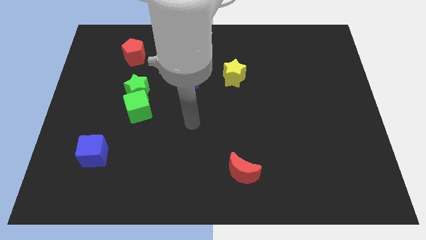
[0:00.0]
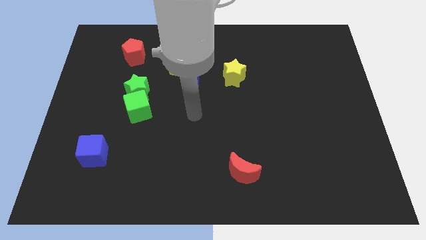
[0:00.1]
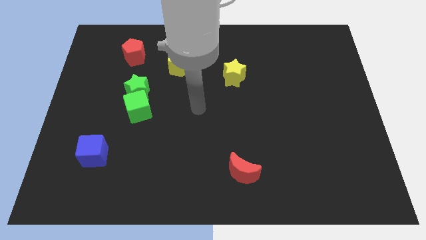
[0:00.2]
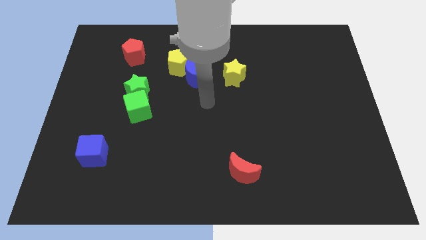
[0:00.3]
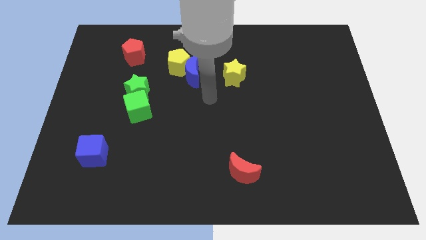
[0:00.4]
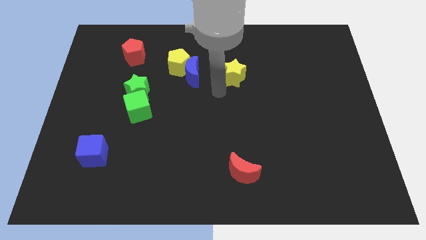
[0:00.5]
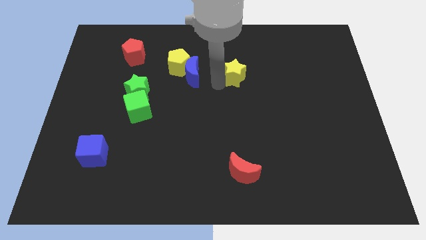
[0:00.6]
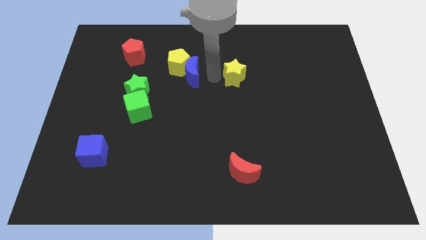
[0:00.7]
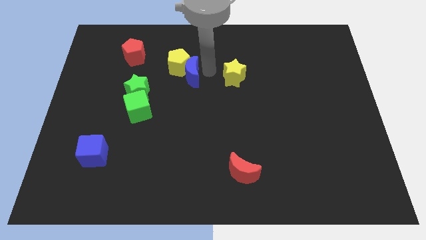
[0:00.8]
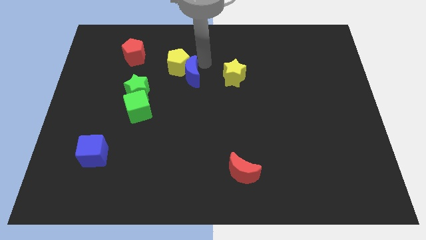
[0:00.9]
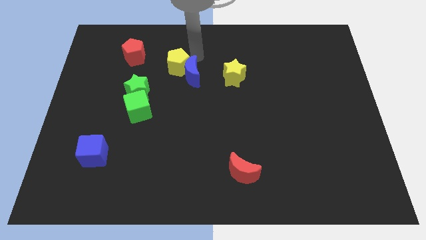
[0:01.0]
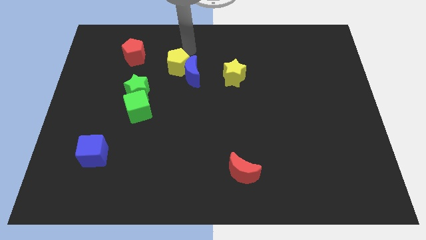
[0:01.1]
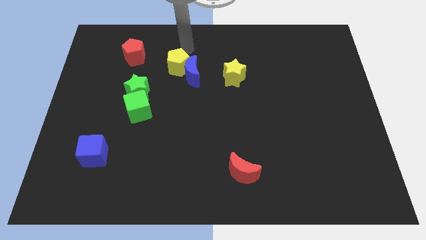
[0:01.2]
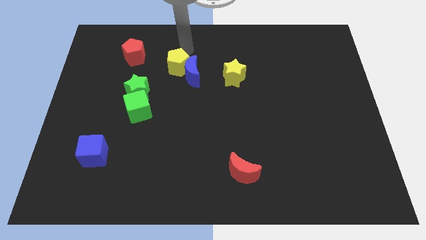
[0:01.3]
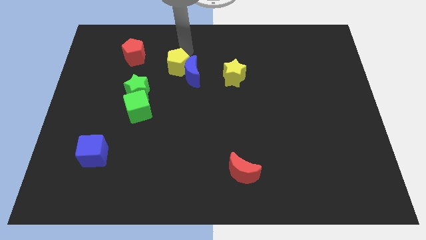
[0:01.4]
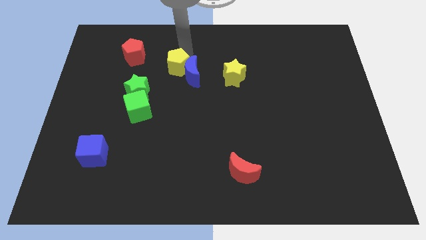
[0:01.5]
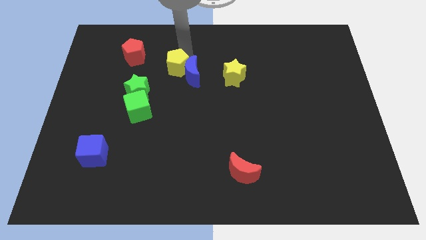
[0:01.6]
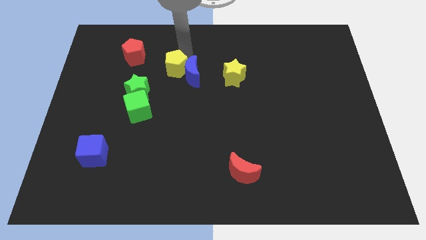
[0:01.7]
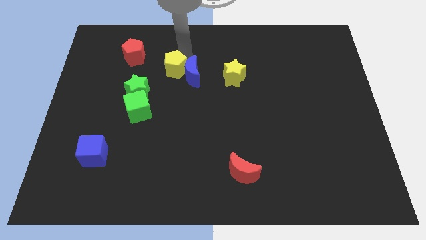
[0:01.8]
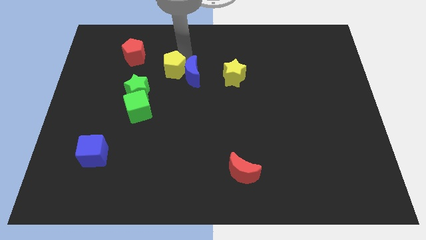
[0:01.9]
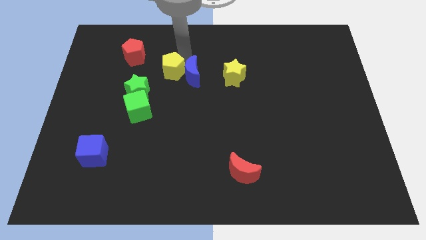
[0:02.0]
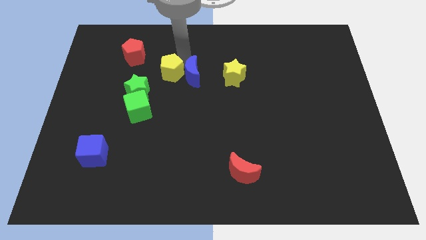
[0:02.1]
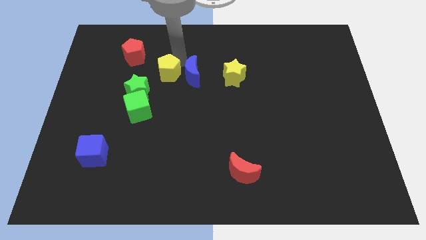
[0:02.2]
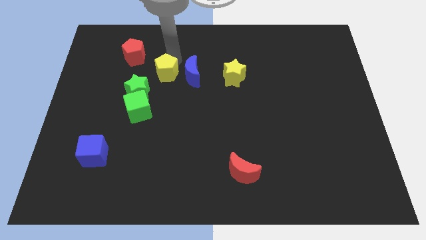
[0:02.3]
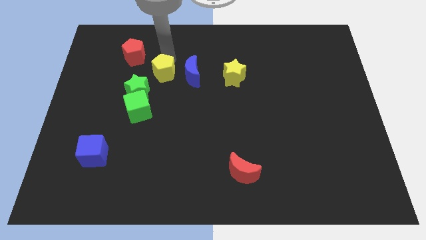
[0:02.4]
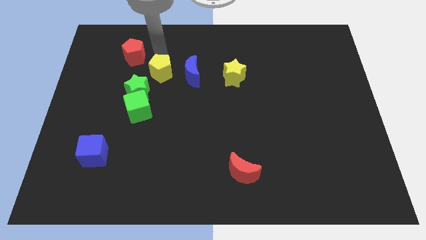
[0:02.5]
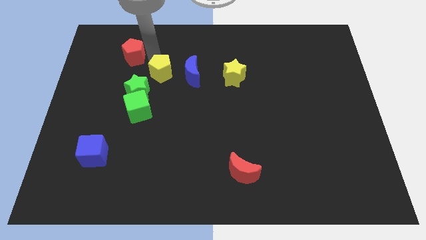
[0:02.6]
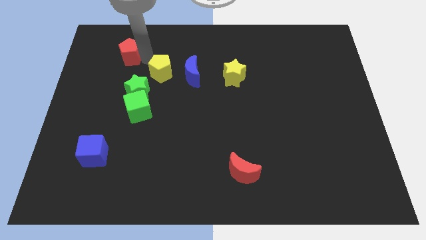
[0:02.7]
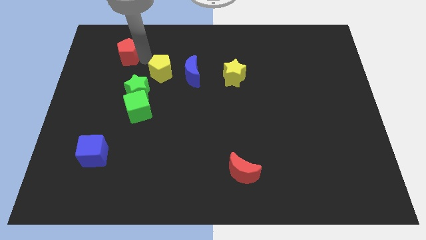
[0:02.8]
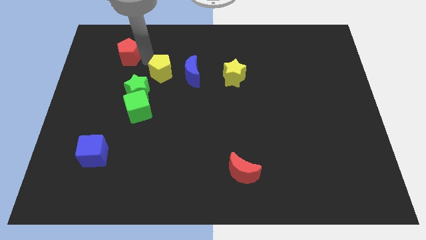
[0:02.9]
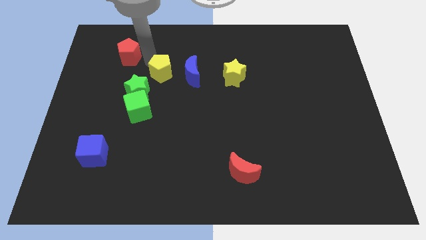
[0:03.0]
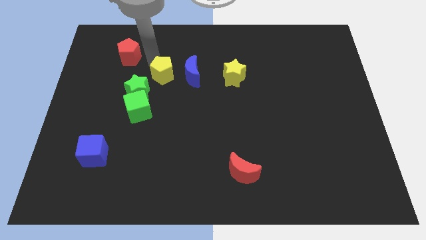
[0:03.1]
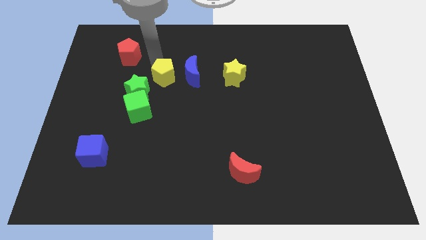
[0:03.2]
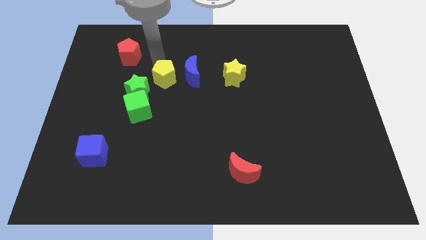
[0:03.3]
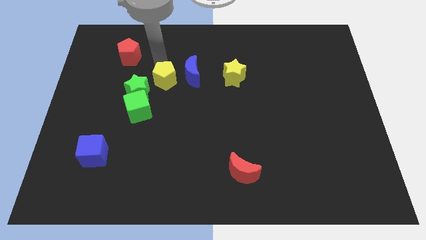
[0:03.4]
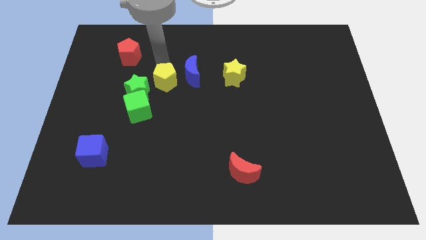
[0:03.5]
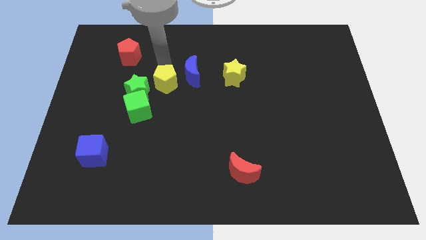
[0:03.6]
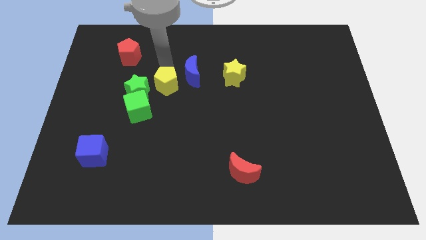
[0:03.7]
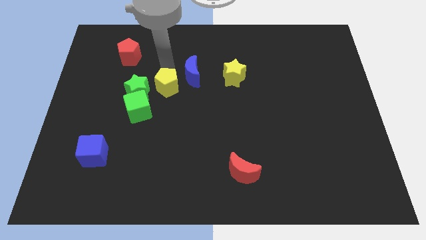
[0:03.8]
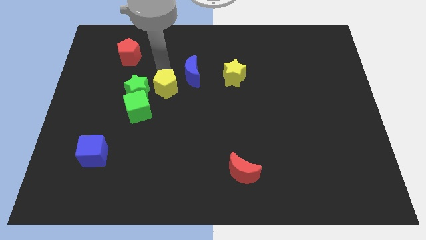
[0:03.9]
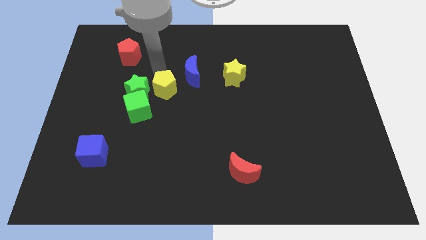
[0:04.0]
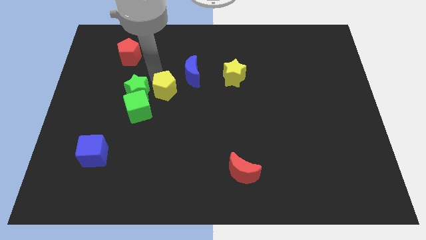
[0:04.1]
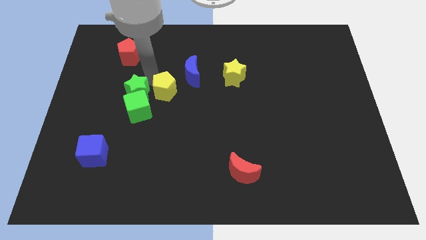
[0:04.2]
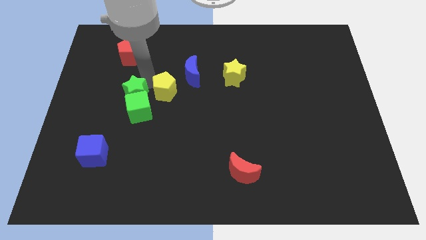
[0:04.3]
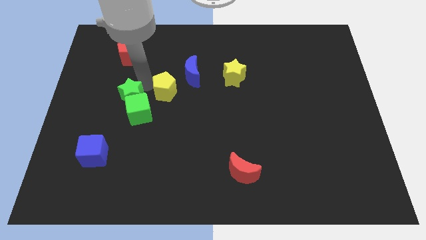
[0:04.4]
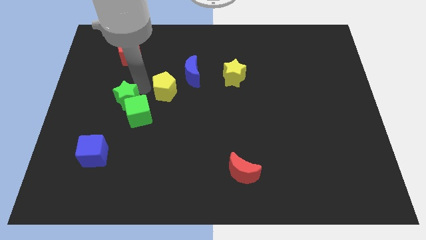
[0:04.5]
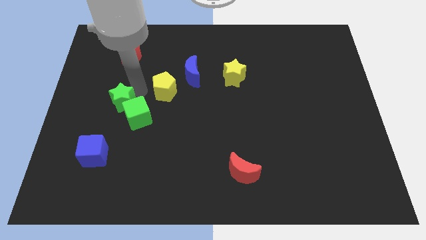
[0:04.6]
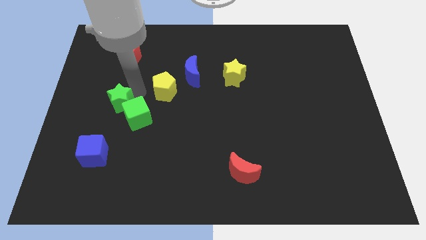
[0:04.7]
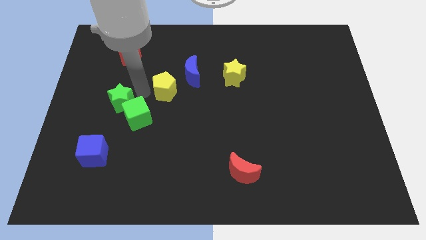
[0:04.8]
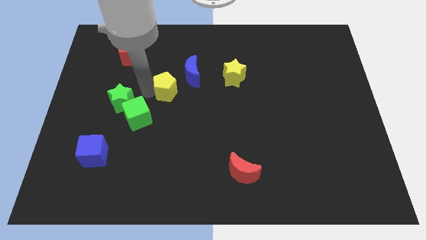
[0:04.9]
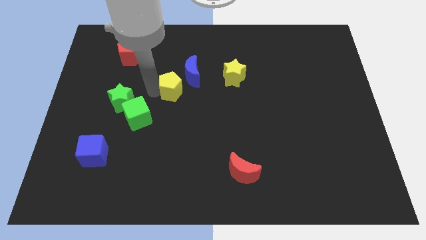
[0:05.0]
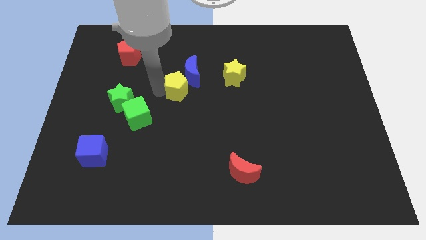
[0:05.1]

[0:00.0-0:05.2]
slide the yellow pentagon to the bottom side of the blue moon

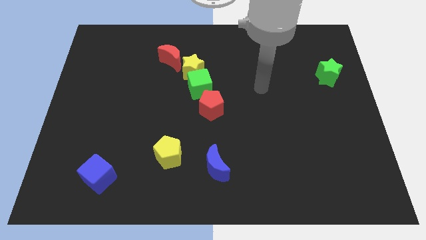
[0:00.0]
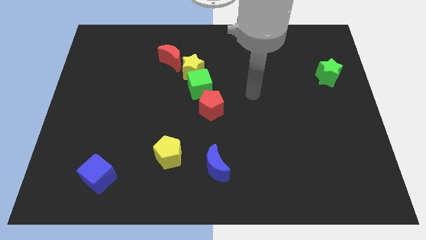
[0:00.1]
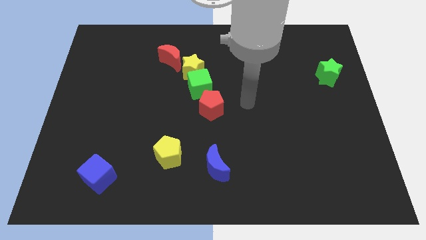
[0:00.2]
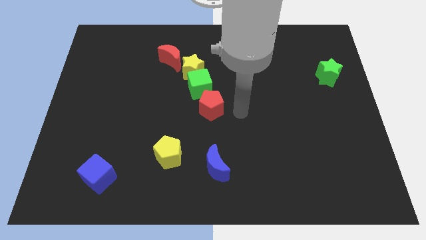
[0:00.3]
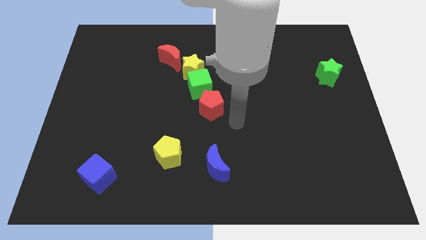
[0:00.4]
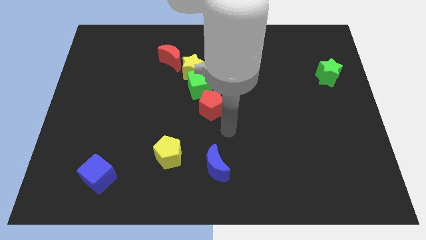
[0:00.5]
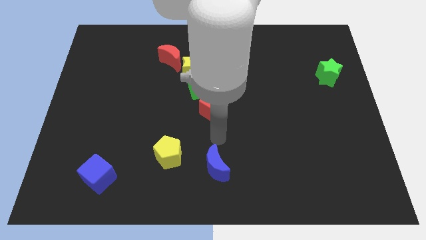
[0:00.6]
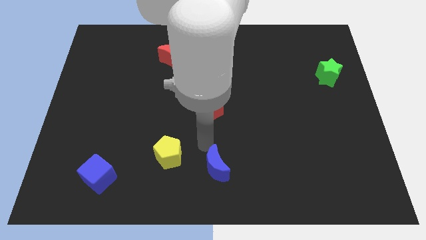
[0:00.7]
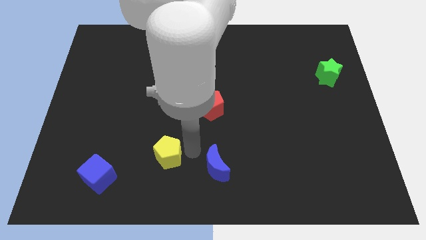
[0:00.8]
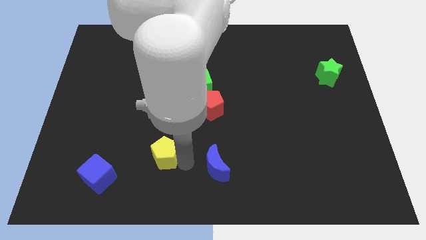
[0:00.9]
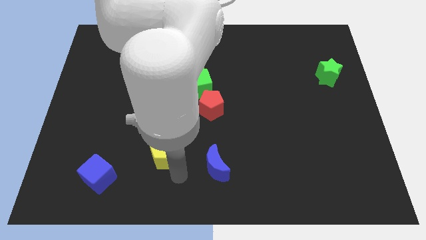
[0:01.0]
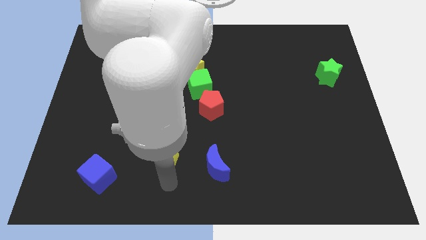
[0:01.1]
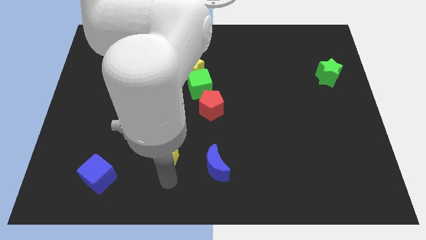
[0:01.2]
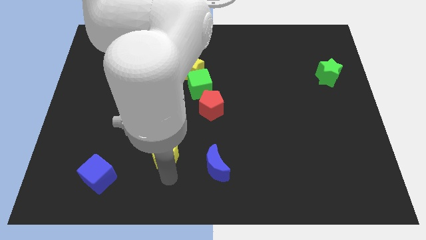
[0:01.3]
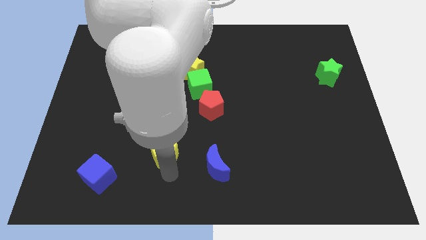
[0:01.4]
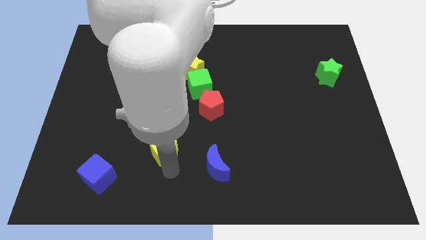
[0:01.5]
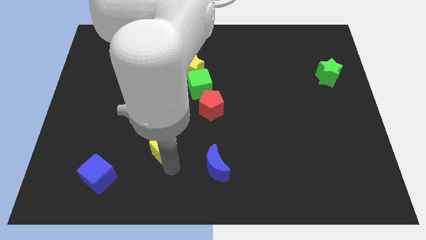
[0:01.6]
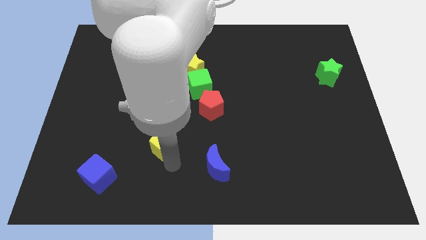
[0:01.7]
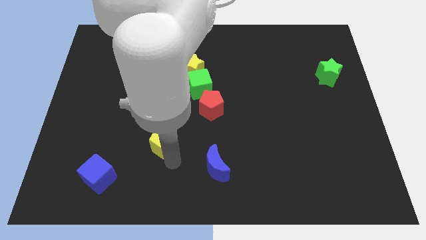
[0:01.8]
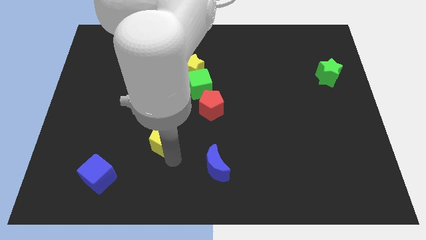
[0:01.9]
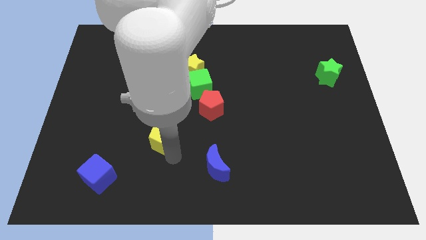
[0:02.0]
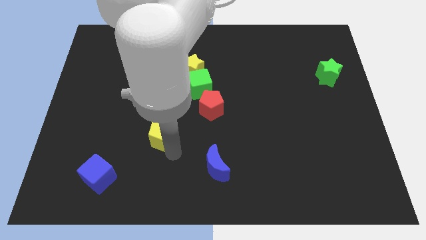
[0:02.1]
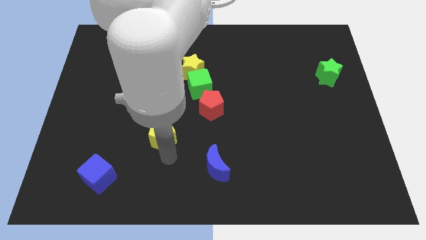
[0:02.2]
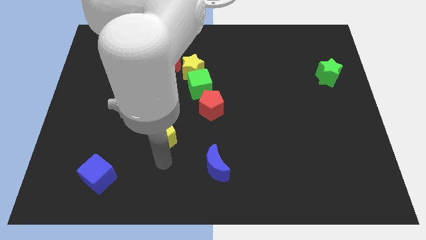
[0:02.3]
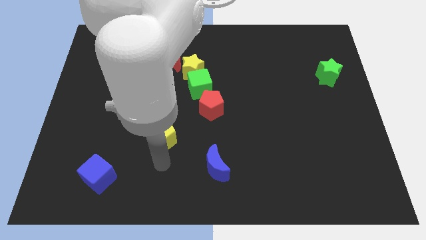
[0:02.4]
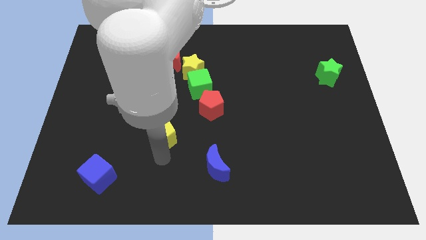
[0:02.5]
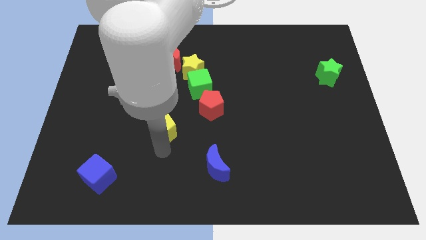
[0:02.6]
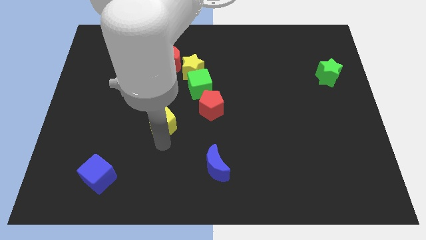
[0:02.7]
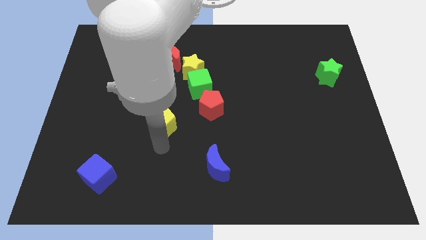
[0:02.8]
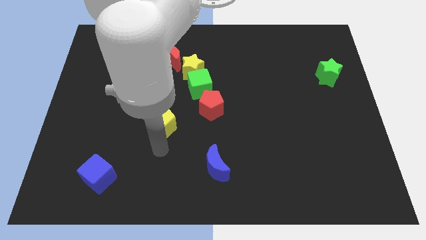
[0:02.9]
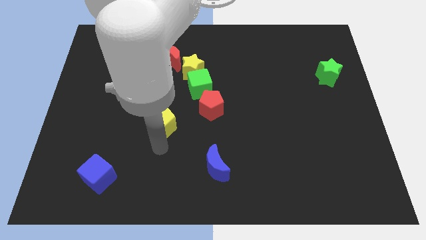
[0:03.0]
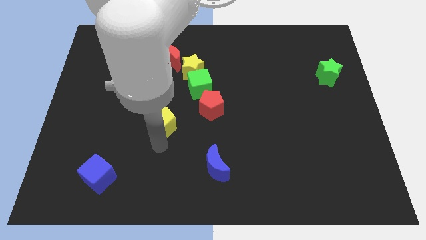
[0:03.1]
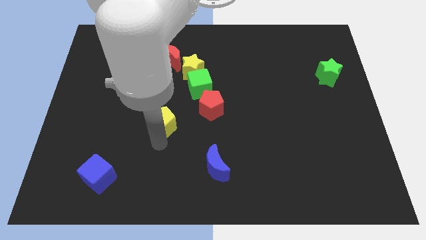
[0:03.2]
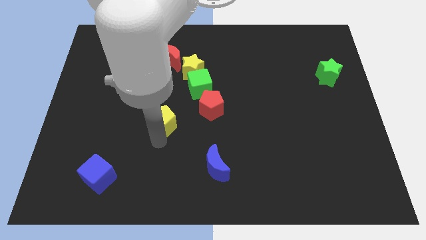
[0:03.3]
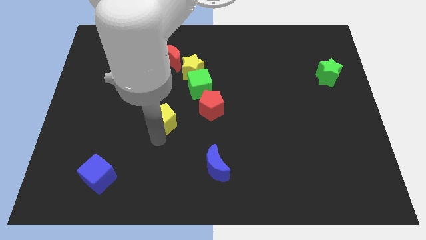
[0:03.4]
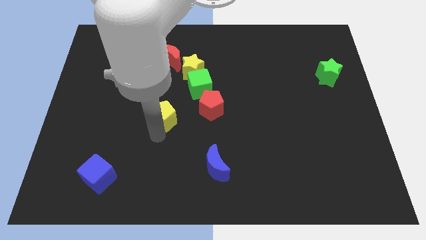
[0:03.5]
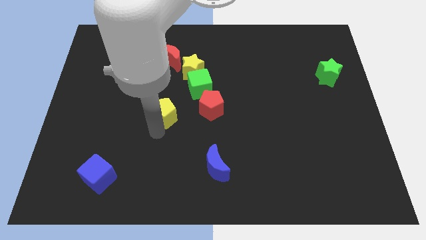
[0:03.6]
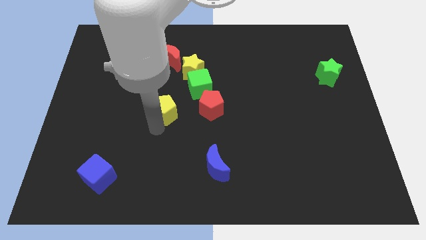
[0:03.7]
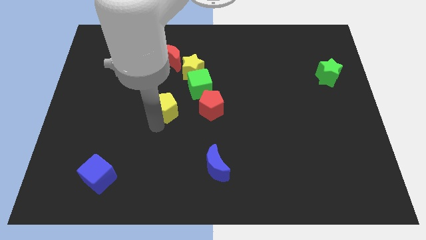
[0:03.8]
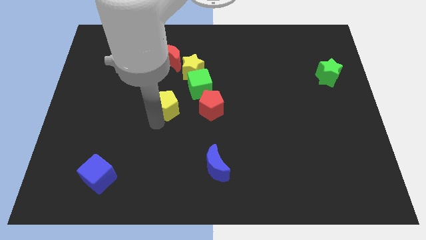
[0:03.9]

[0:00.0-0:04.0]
put the yellow pentagon below the red moon
